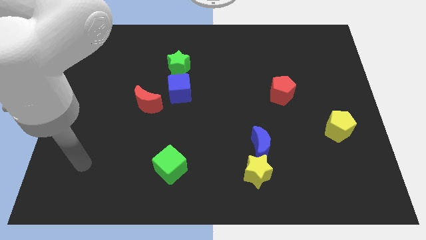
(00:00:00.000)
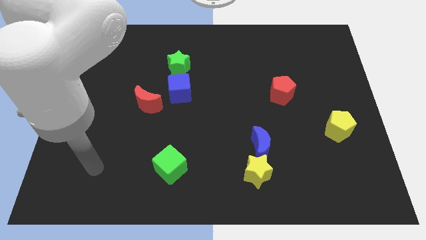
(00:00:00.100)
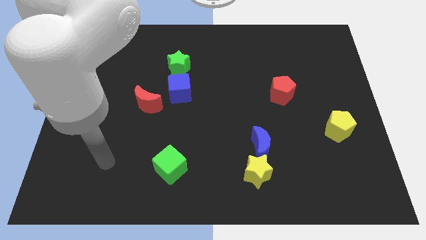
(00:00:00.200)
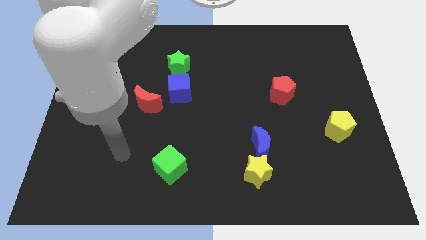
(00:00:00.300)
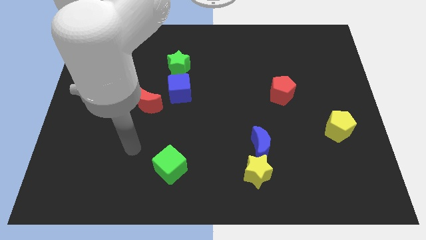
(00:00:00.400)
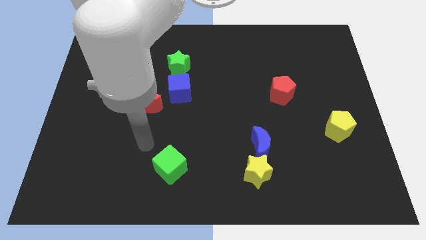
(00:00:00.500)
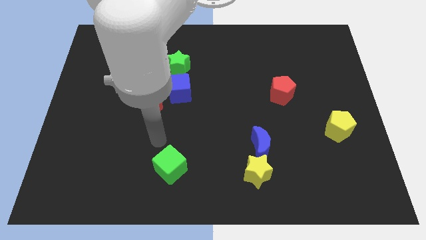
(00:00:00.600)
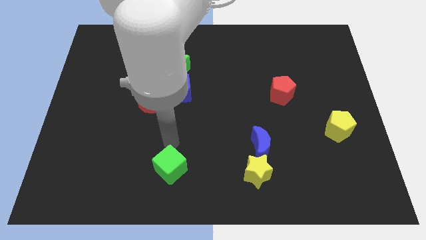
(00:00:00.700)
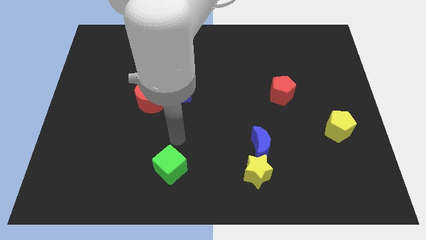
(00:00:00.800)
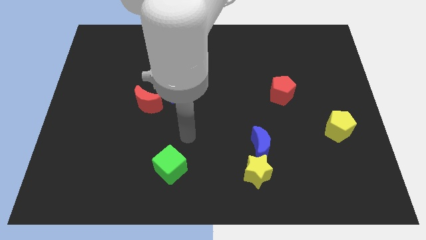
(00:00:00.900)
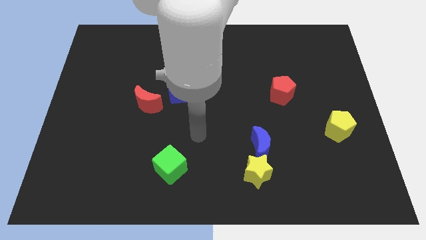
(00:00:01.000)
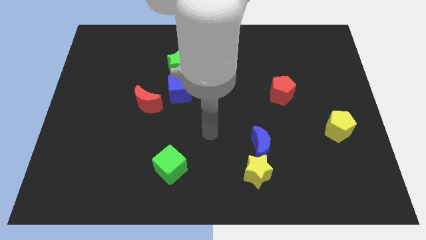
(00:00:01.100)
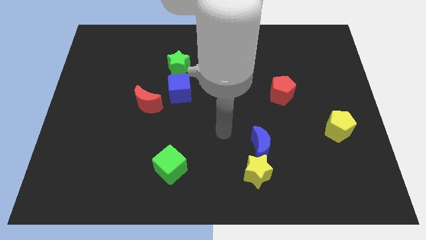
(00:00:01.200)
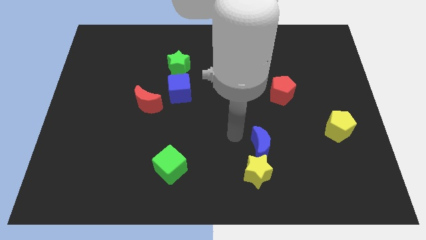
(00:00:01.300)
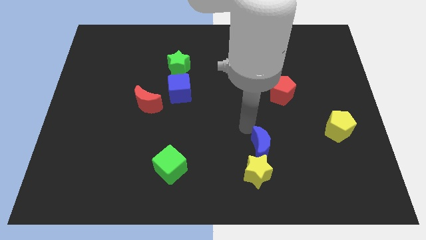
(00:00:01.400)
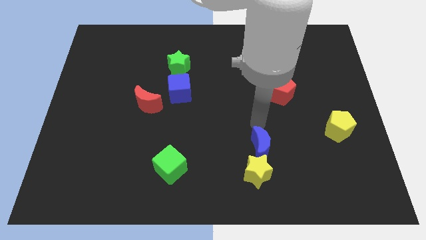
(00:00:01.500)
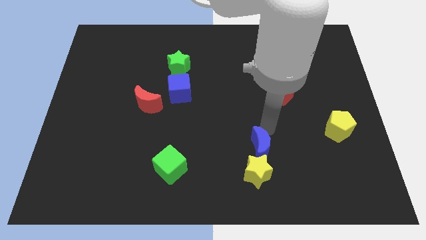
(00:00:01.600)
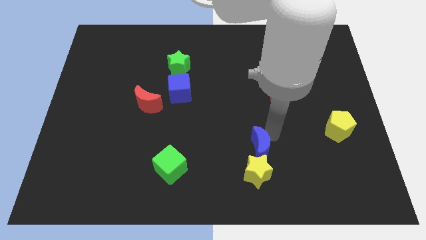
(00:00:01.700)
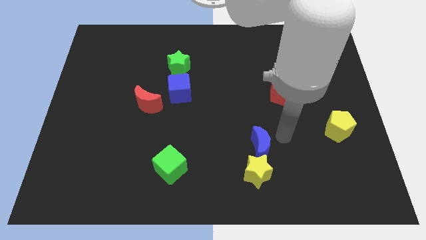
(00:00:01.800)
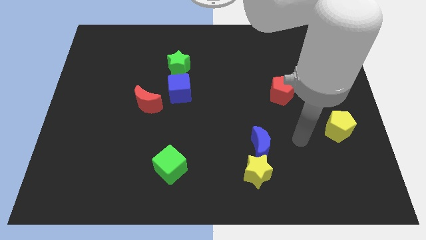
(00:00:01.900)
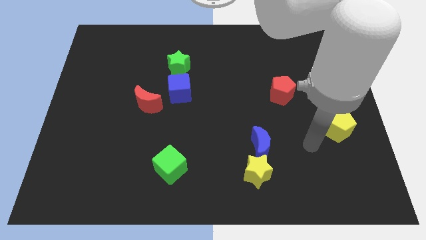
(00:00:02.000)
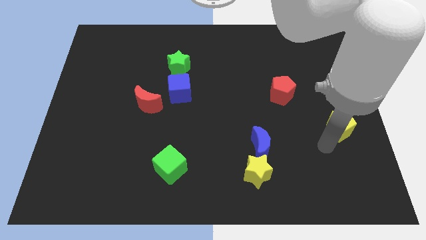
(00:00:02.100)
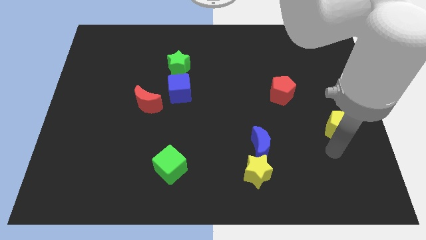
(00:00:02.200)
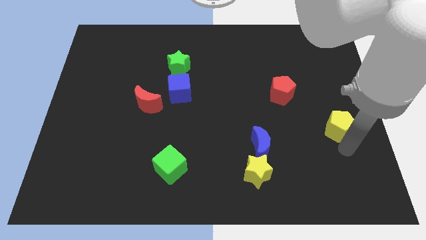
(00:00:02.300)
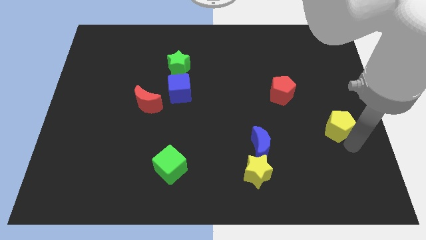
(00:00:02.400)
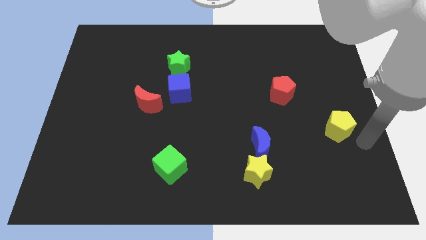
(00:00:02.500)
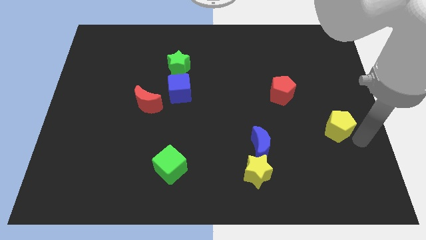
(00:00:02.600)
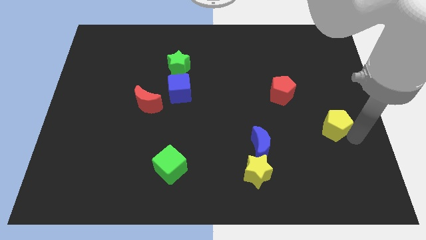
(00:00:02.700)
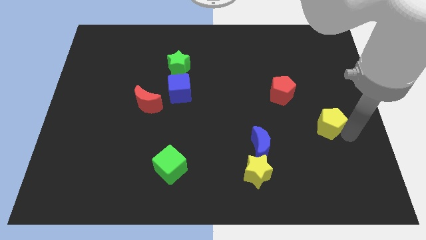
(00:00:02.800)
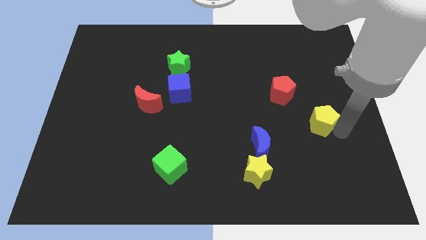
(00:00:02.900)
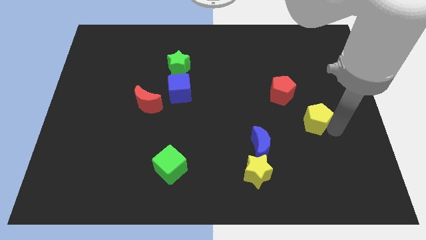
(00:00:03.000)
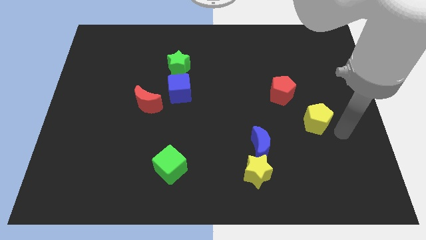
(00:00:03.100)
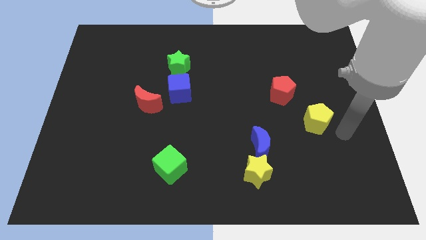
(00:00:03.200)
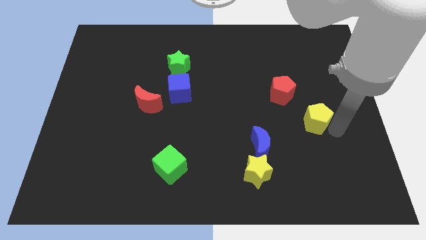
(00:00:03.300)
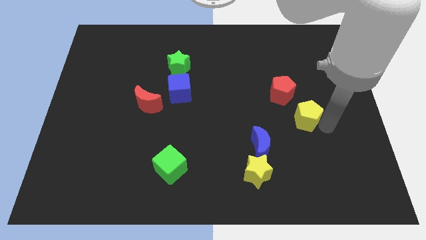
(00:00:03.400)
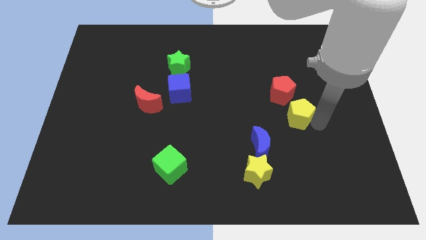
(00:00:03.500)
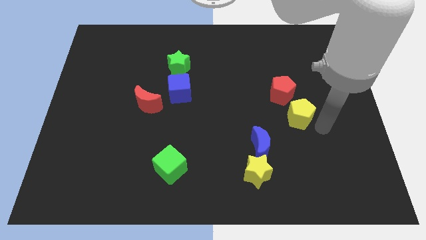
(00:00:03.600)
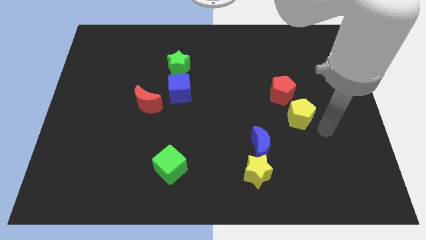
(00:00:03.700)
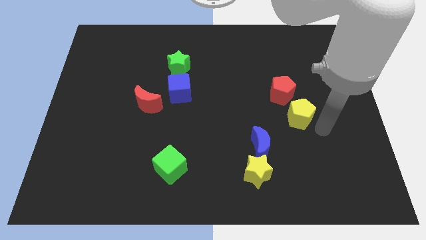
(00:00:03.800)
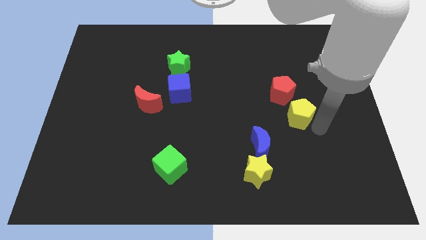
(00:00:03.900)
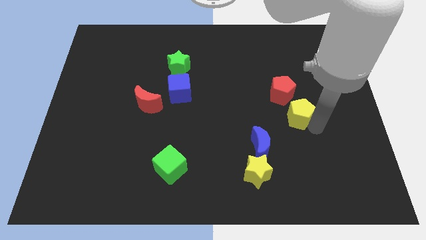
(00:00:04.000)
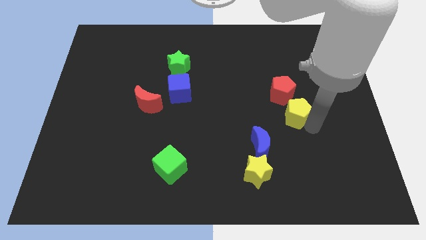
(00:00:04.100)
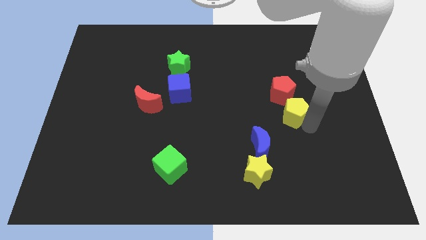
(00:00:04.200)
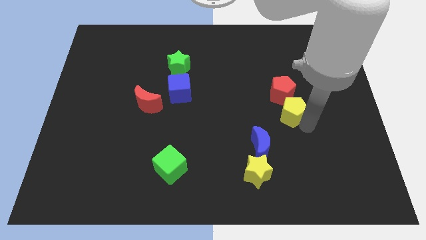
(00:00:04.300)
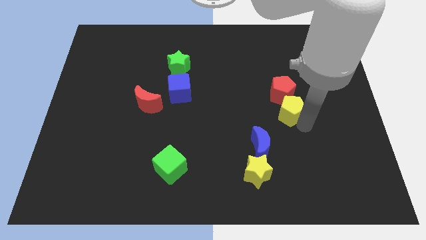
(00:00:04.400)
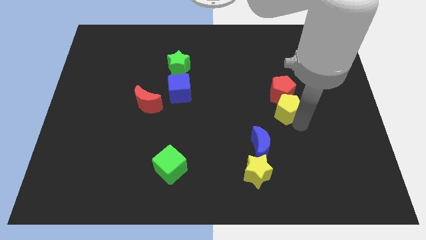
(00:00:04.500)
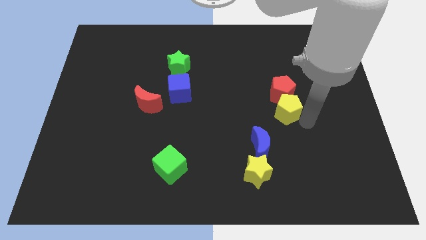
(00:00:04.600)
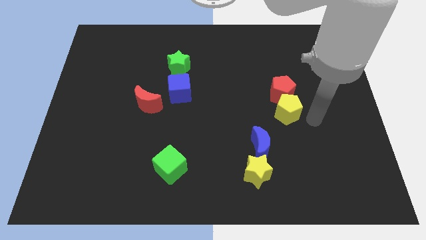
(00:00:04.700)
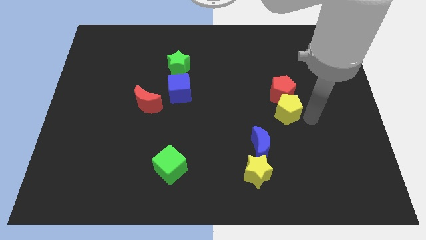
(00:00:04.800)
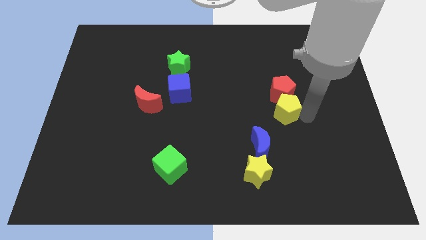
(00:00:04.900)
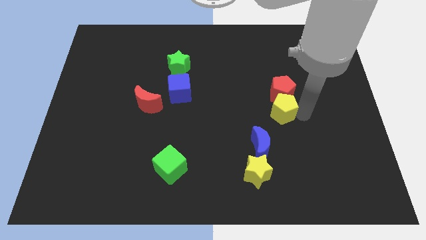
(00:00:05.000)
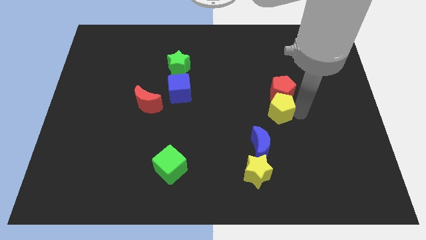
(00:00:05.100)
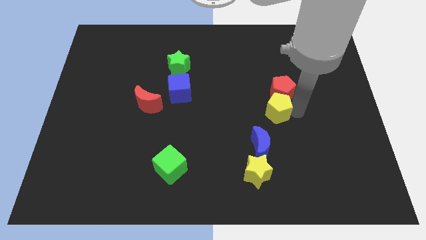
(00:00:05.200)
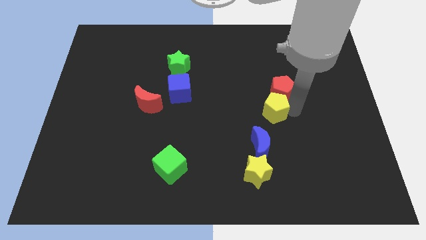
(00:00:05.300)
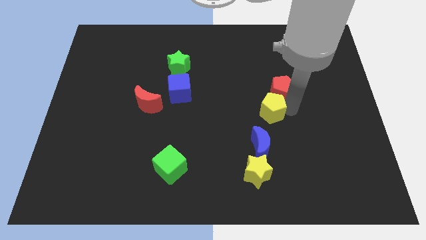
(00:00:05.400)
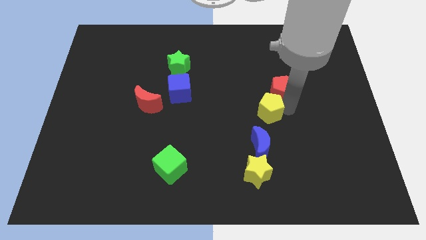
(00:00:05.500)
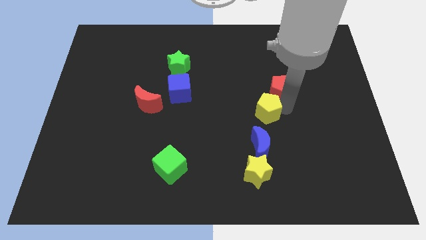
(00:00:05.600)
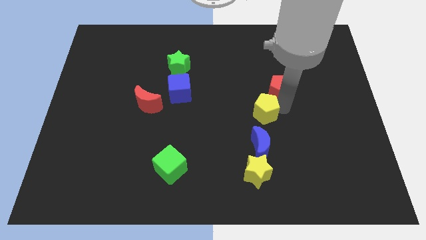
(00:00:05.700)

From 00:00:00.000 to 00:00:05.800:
put the yellow pentagon to the center of the board

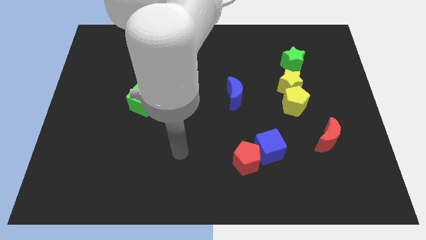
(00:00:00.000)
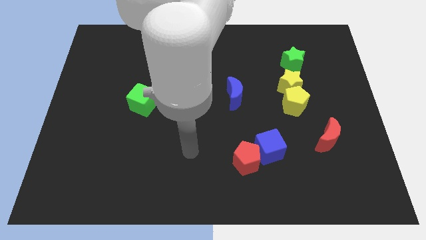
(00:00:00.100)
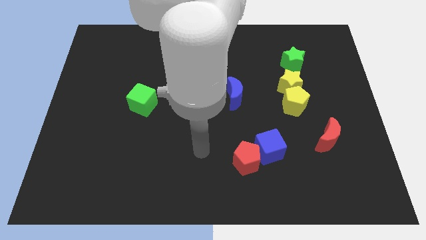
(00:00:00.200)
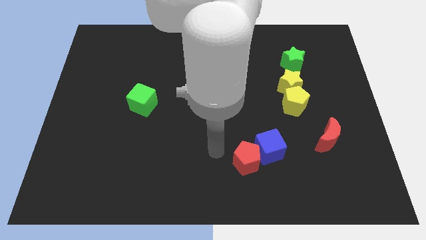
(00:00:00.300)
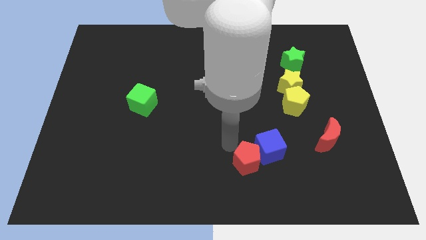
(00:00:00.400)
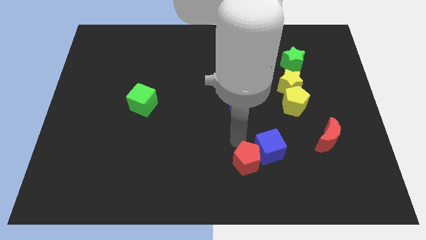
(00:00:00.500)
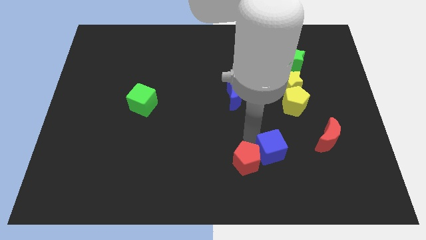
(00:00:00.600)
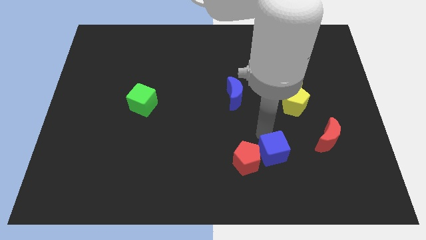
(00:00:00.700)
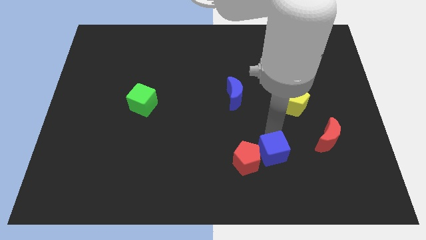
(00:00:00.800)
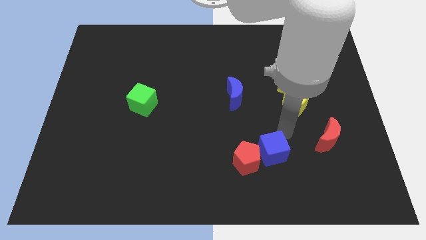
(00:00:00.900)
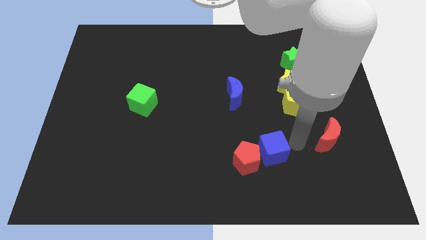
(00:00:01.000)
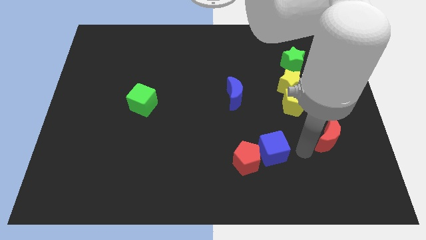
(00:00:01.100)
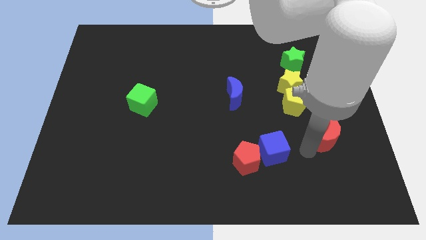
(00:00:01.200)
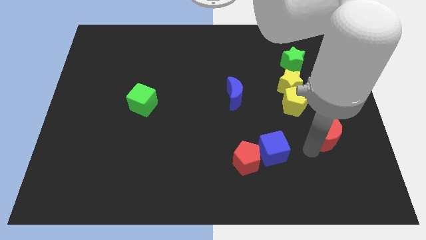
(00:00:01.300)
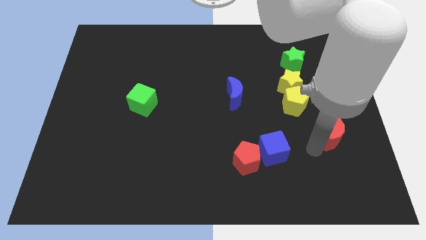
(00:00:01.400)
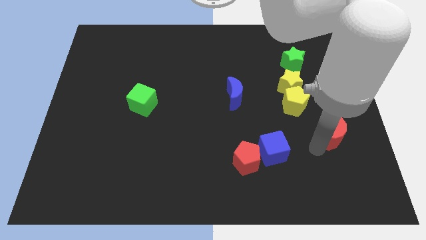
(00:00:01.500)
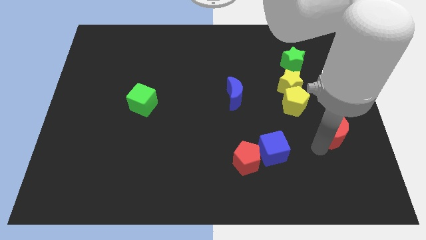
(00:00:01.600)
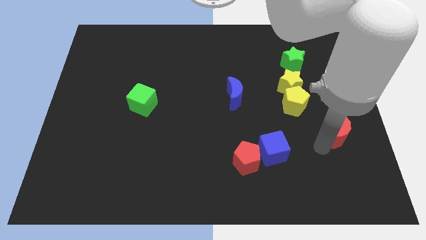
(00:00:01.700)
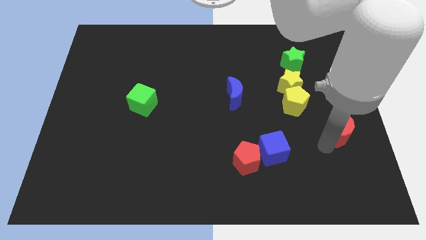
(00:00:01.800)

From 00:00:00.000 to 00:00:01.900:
slide the red moon to the right side
